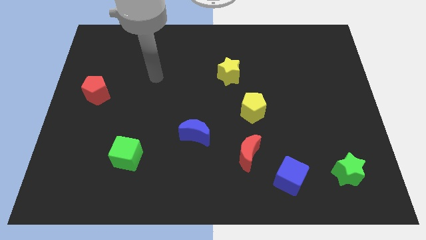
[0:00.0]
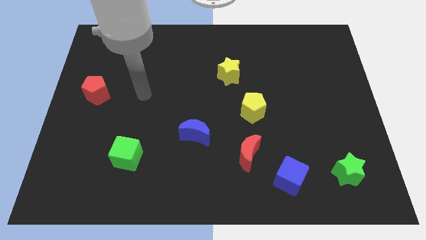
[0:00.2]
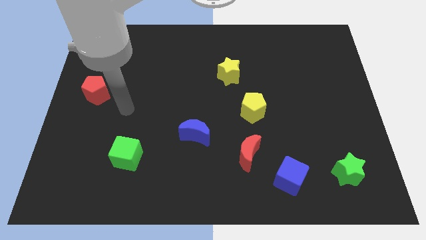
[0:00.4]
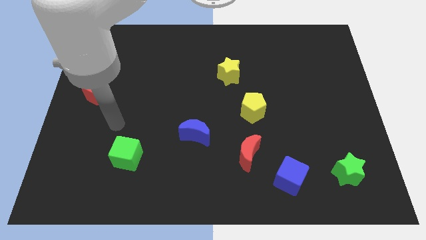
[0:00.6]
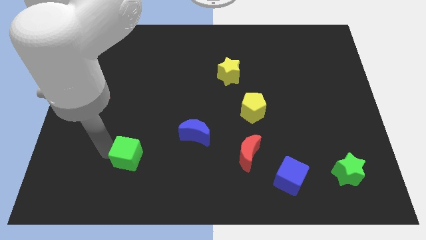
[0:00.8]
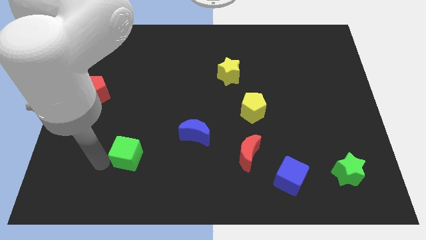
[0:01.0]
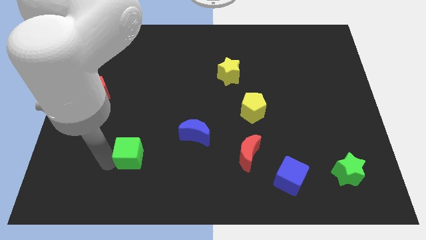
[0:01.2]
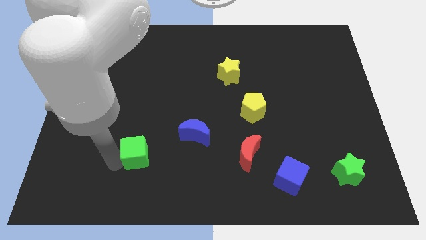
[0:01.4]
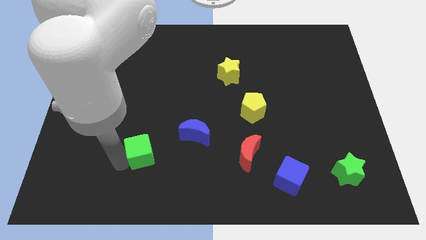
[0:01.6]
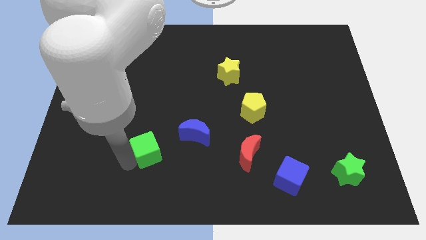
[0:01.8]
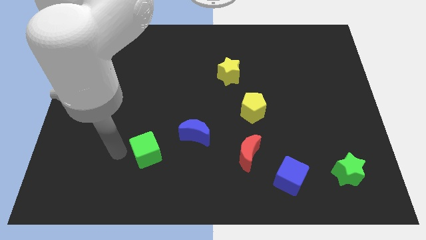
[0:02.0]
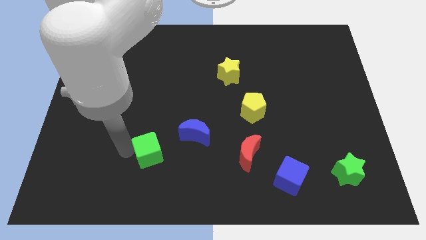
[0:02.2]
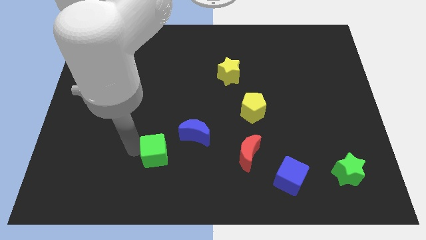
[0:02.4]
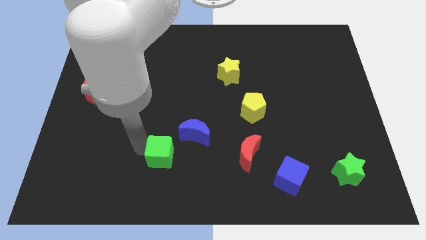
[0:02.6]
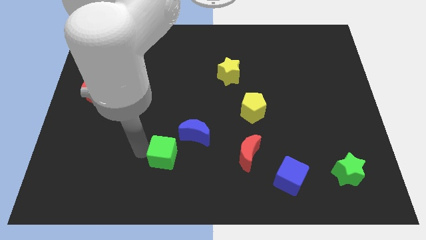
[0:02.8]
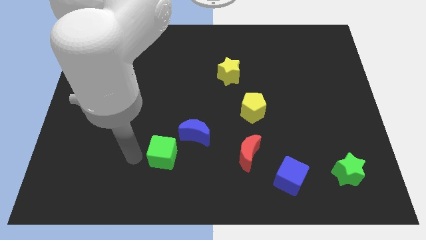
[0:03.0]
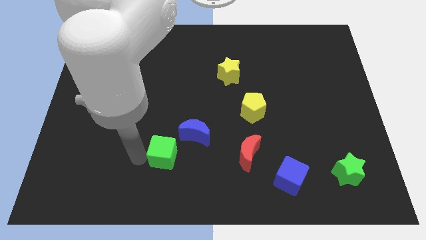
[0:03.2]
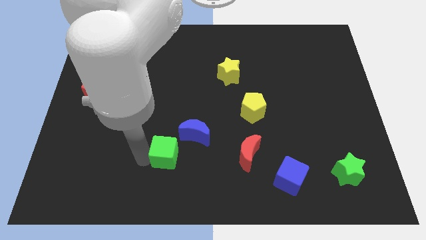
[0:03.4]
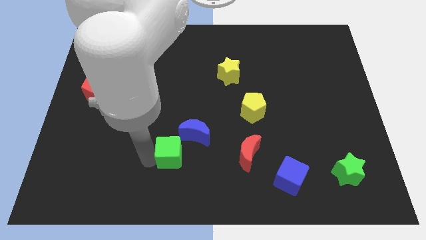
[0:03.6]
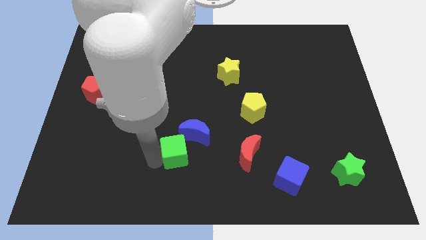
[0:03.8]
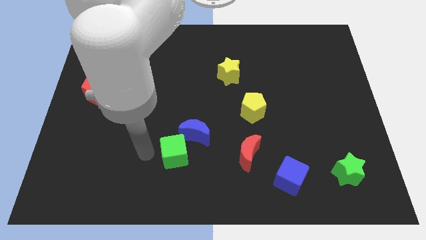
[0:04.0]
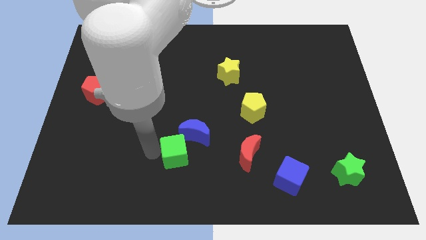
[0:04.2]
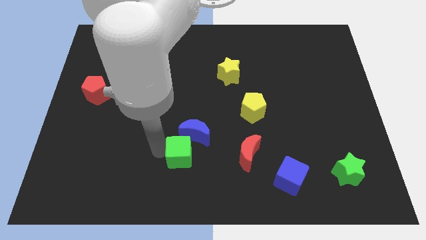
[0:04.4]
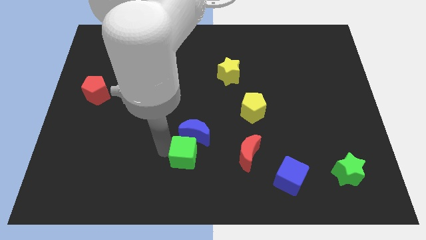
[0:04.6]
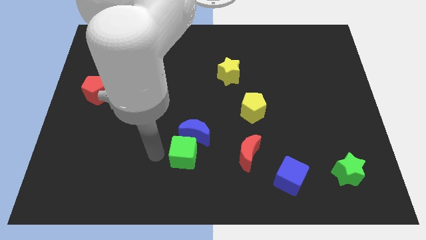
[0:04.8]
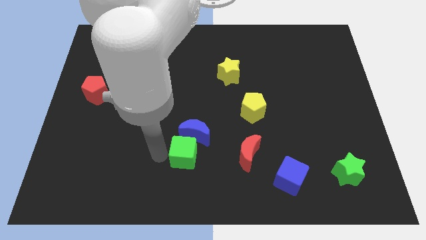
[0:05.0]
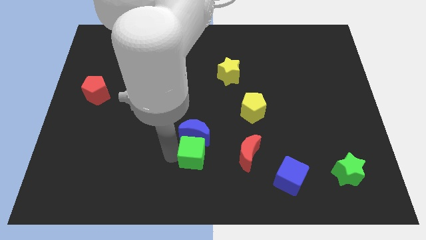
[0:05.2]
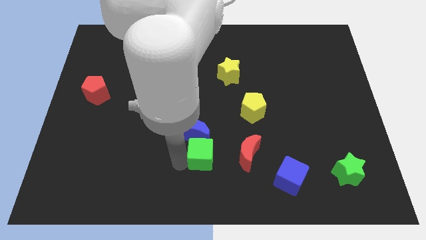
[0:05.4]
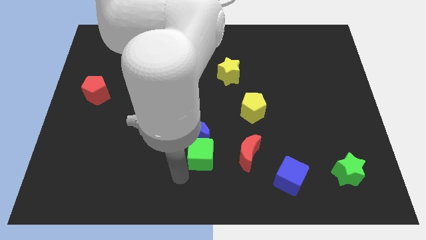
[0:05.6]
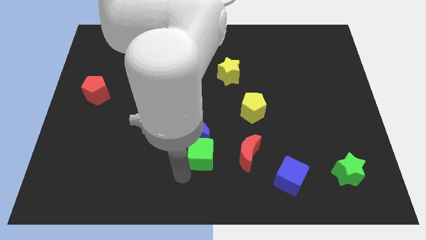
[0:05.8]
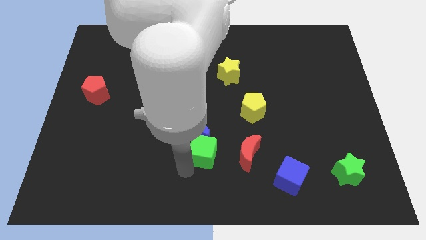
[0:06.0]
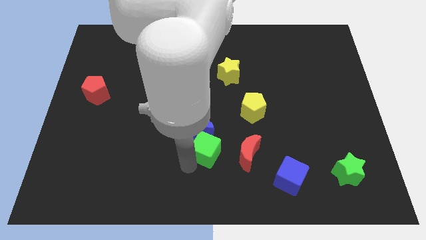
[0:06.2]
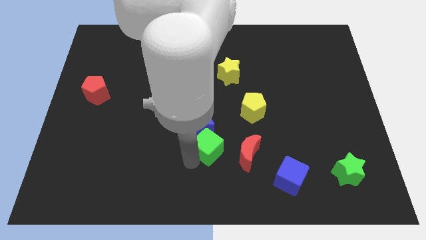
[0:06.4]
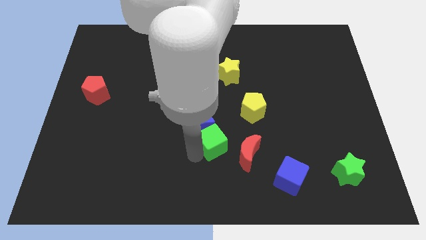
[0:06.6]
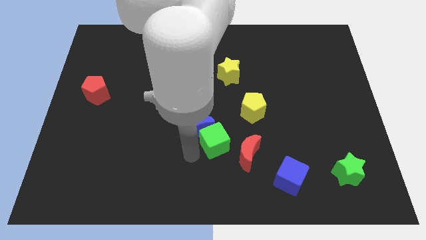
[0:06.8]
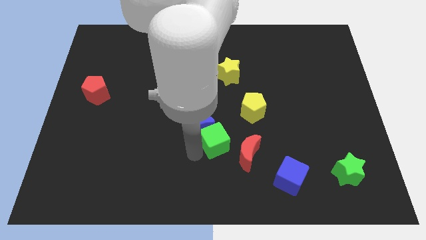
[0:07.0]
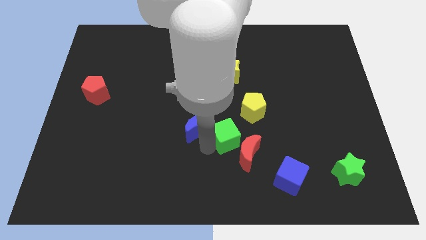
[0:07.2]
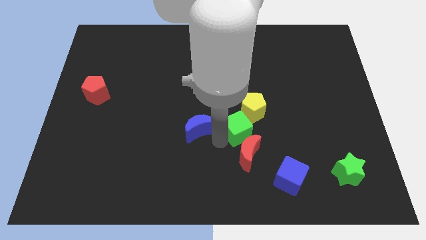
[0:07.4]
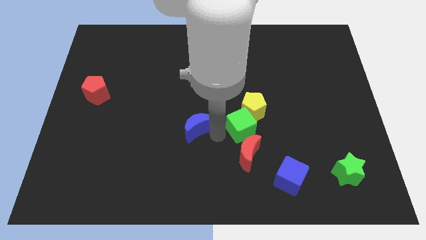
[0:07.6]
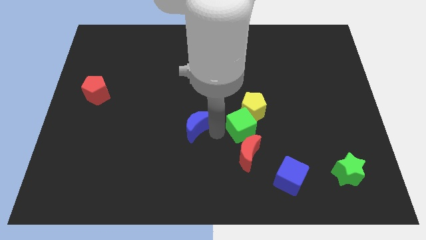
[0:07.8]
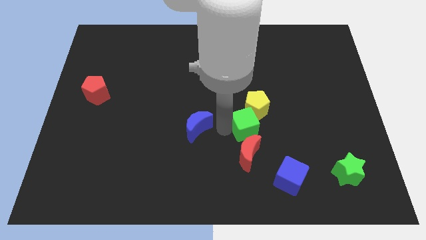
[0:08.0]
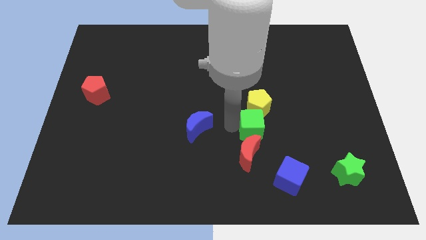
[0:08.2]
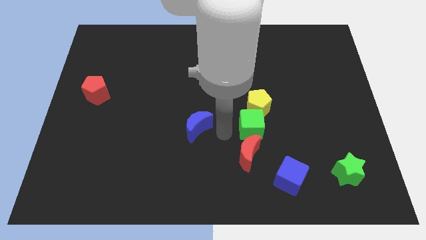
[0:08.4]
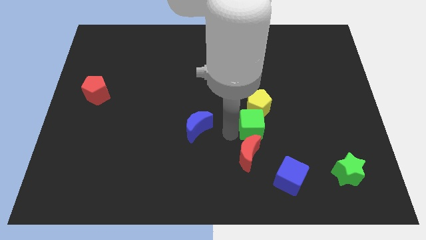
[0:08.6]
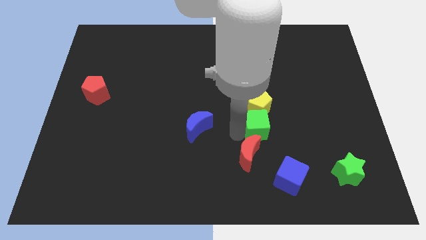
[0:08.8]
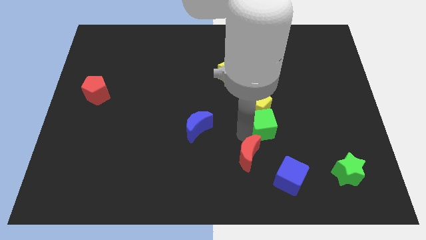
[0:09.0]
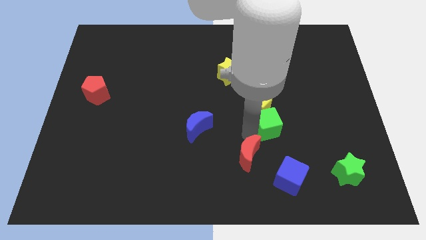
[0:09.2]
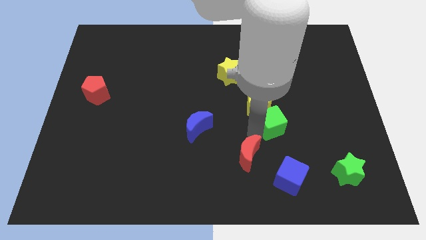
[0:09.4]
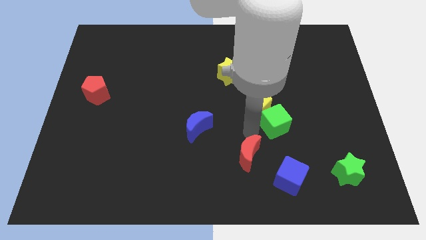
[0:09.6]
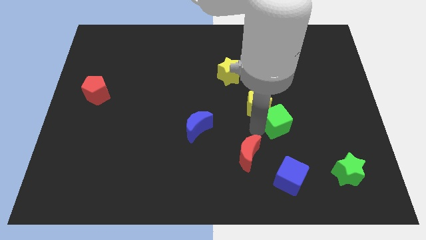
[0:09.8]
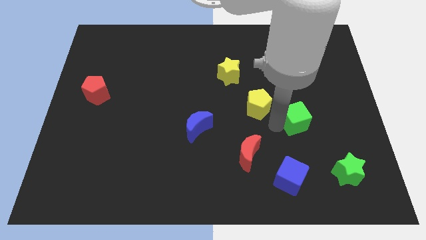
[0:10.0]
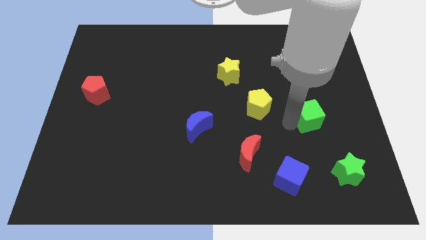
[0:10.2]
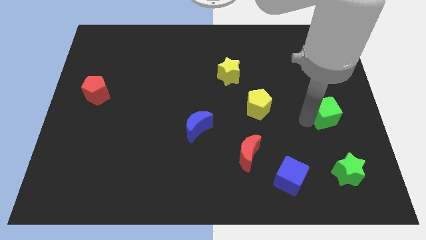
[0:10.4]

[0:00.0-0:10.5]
push the green cube to the right side

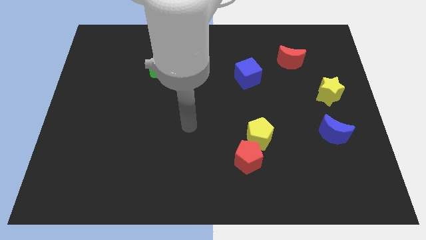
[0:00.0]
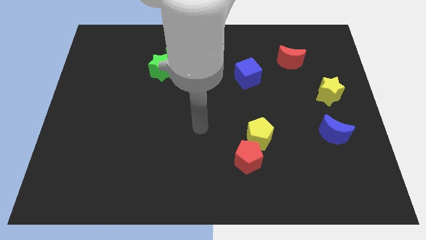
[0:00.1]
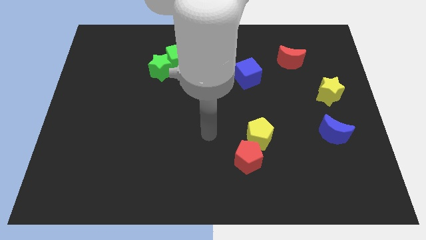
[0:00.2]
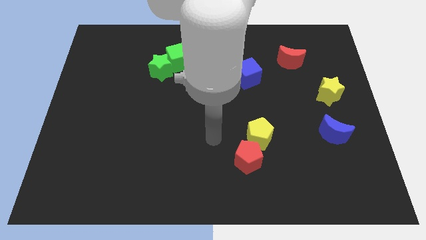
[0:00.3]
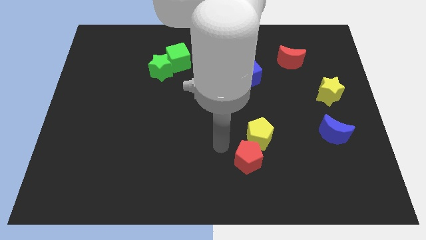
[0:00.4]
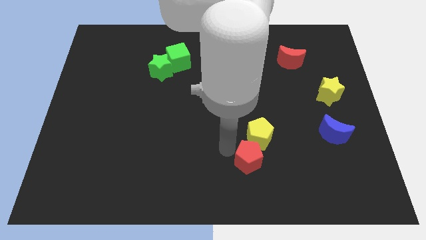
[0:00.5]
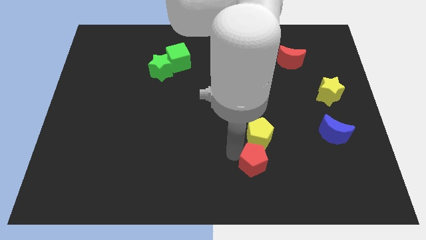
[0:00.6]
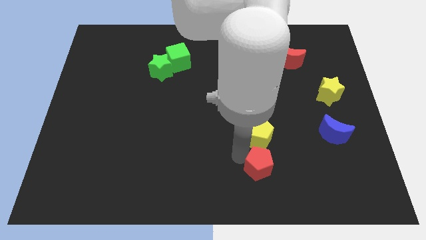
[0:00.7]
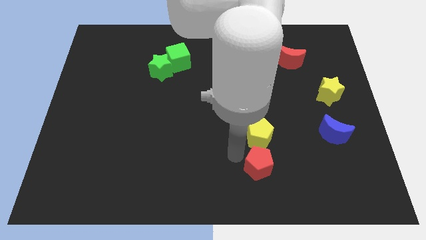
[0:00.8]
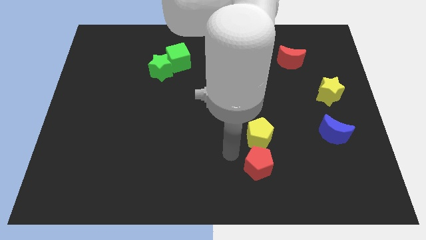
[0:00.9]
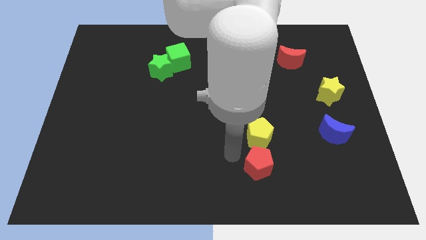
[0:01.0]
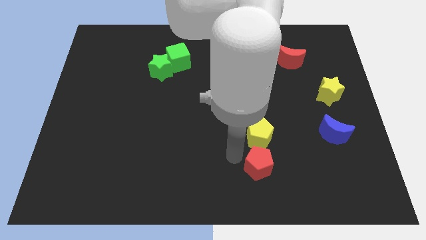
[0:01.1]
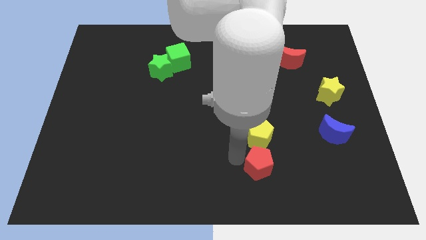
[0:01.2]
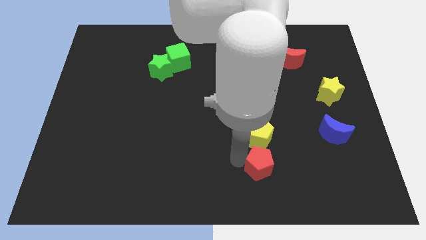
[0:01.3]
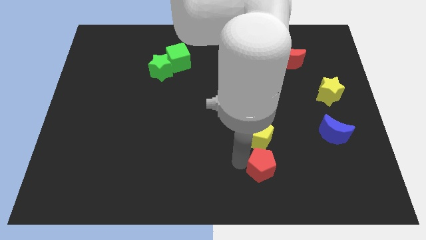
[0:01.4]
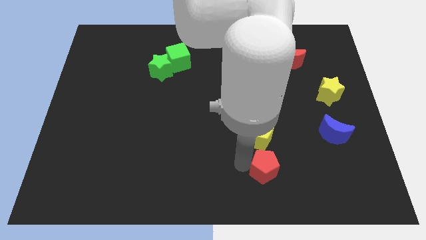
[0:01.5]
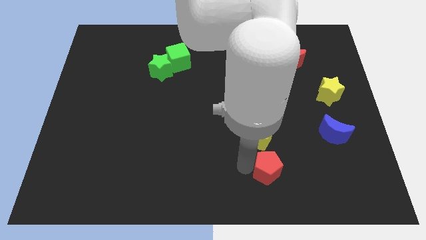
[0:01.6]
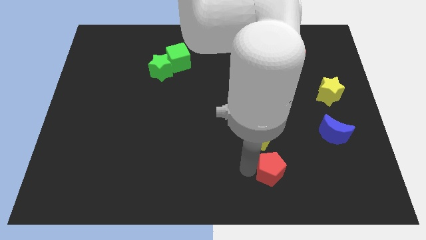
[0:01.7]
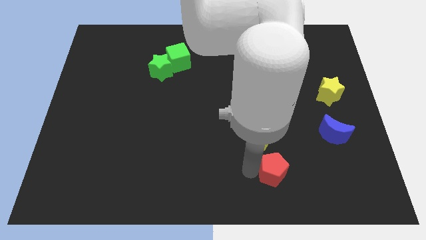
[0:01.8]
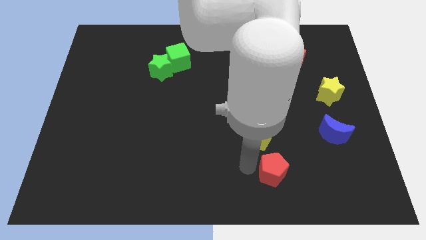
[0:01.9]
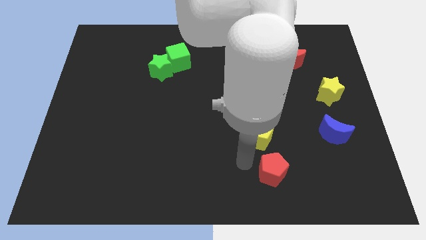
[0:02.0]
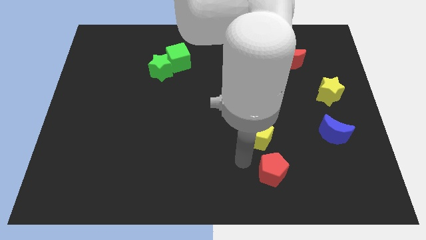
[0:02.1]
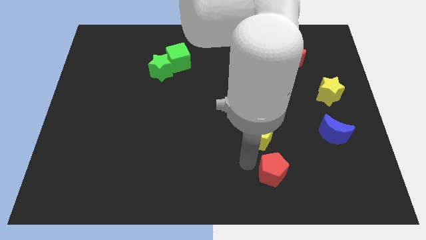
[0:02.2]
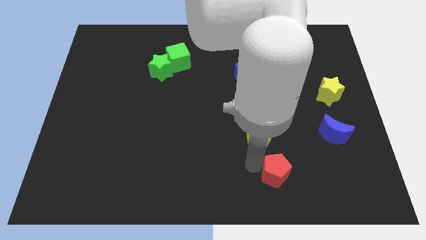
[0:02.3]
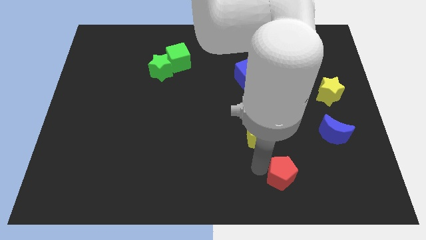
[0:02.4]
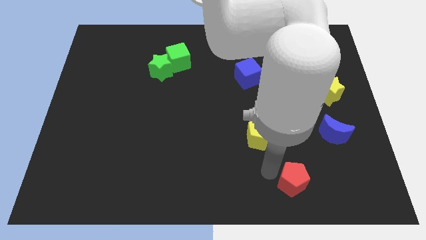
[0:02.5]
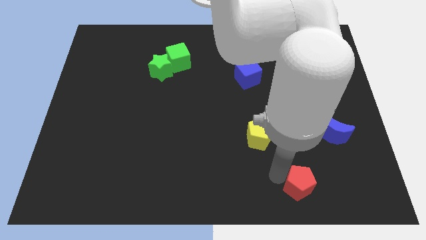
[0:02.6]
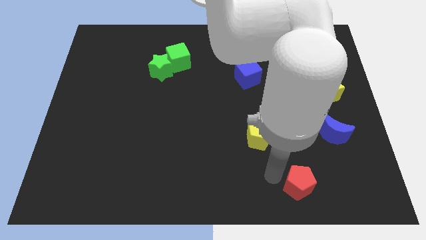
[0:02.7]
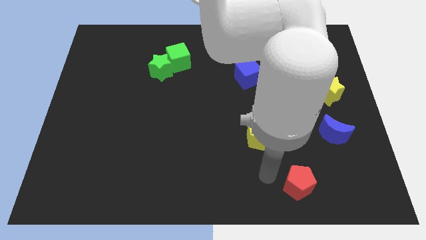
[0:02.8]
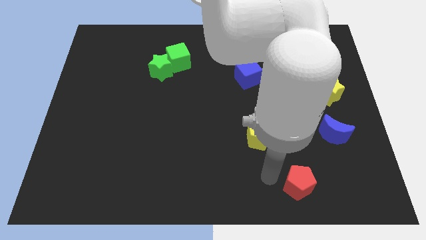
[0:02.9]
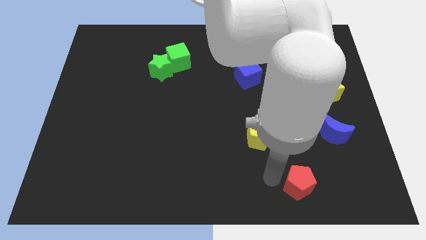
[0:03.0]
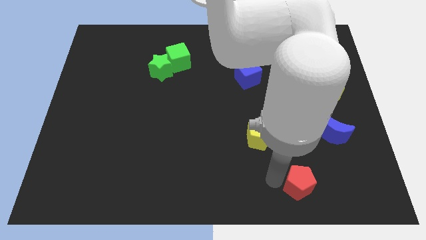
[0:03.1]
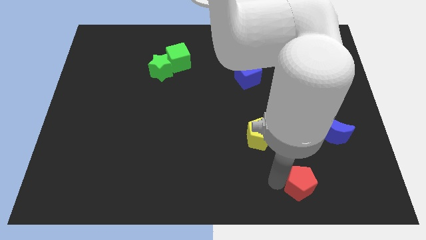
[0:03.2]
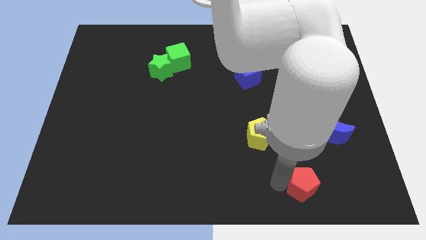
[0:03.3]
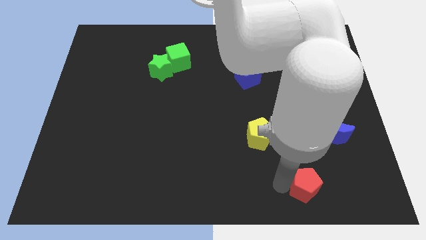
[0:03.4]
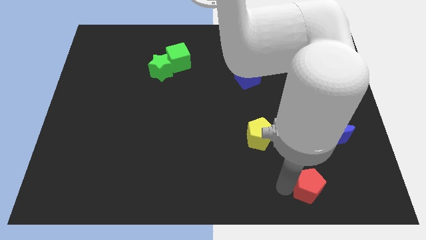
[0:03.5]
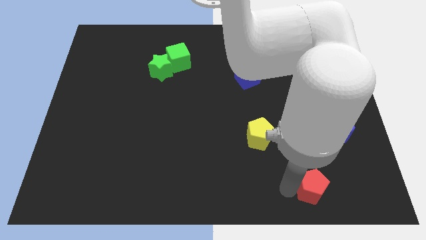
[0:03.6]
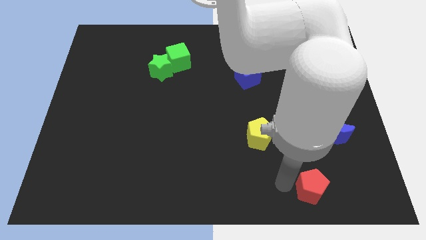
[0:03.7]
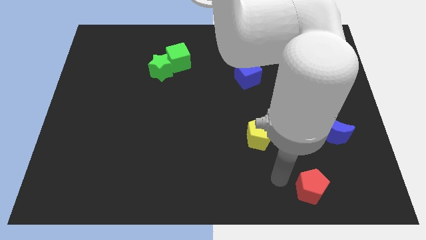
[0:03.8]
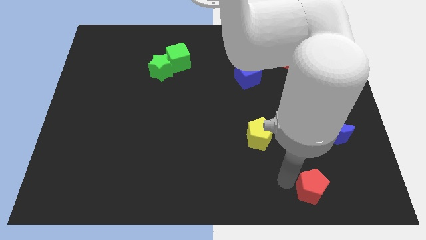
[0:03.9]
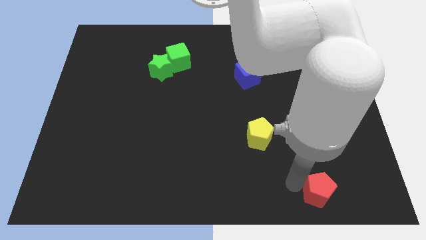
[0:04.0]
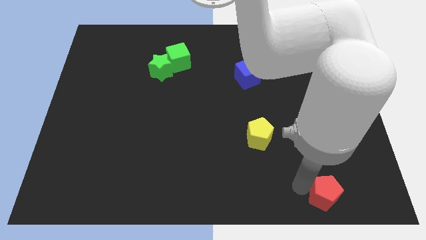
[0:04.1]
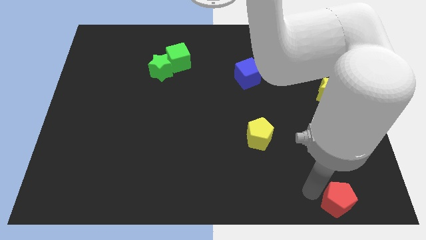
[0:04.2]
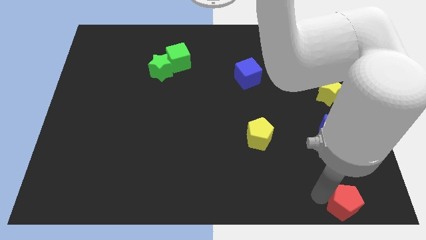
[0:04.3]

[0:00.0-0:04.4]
put the red pentagon to the bottom right of the board
